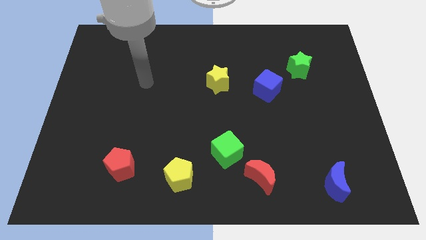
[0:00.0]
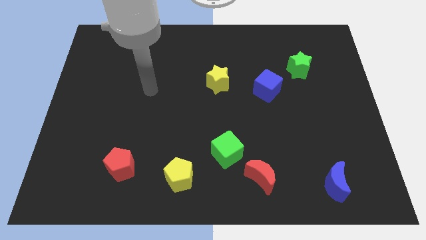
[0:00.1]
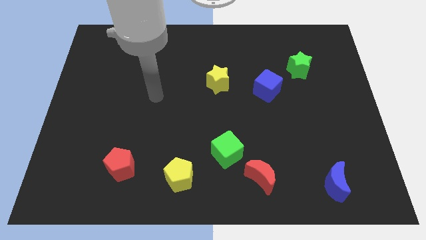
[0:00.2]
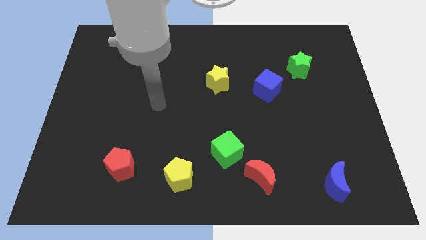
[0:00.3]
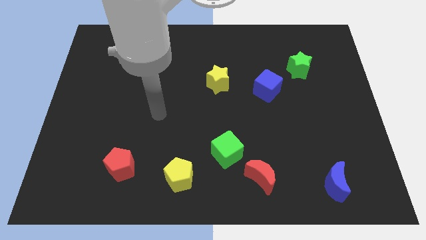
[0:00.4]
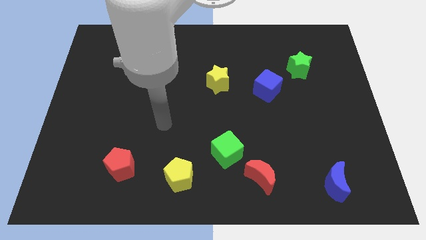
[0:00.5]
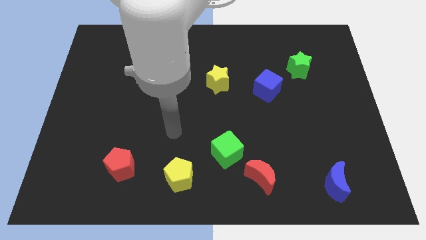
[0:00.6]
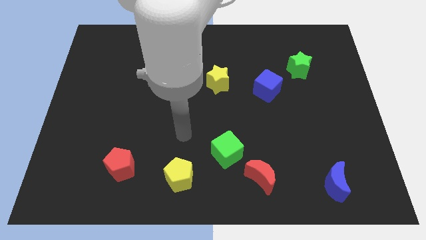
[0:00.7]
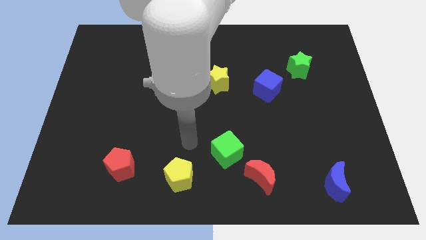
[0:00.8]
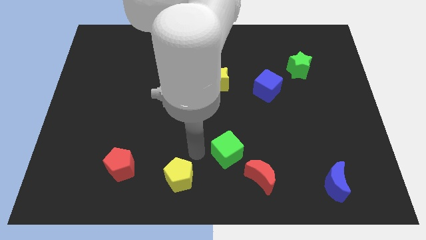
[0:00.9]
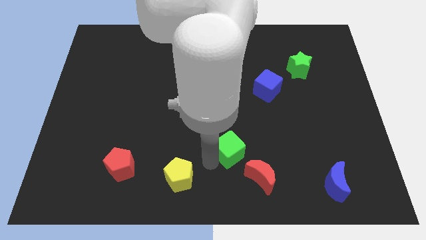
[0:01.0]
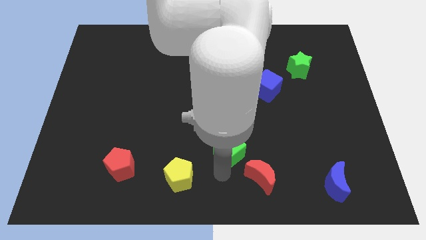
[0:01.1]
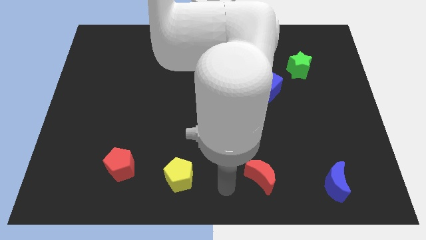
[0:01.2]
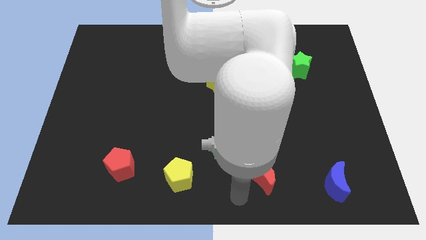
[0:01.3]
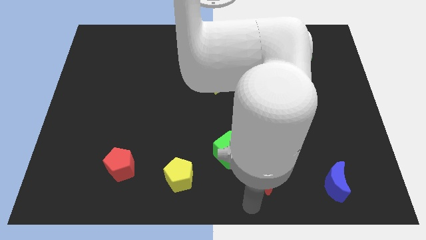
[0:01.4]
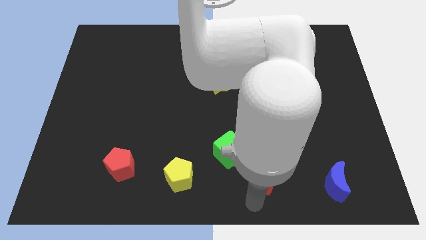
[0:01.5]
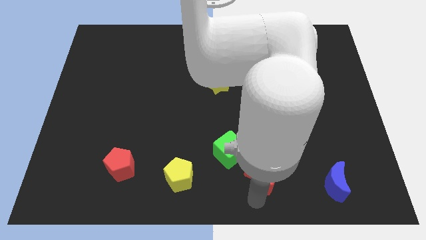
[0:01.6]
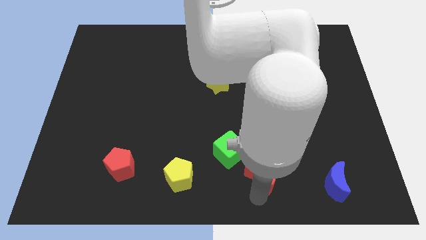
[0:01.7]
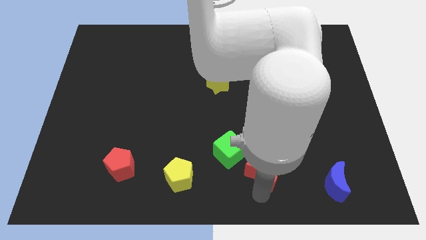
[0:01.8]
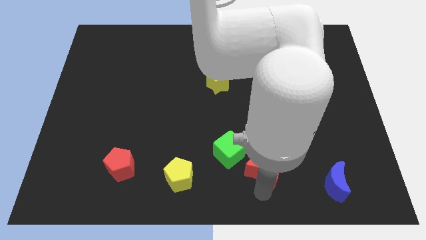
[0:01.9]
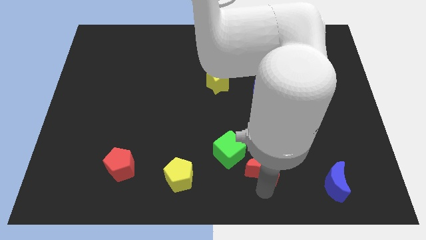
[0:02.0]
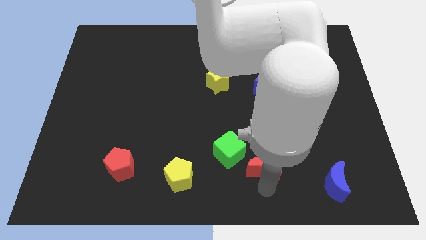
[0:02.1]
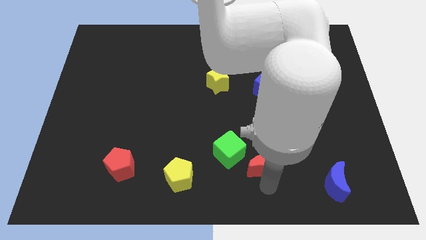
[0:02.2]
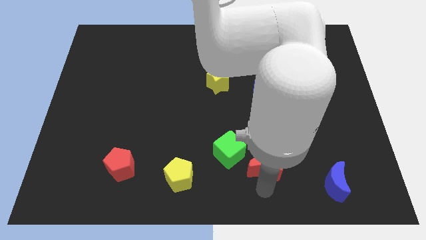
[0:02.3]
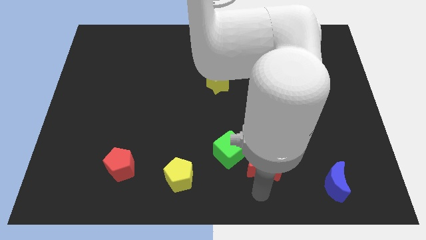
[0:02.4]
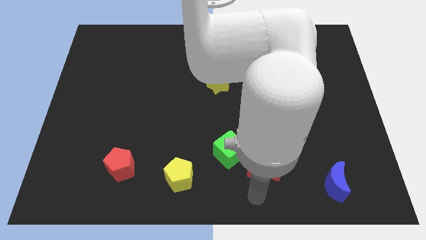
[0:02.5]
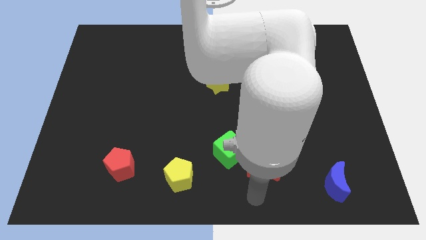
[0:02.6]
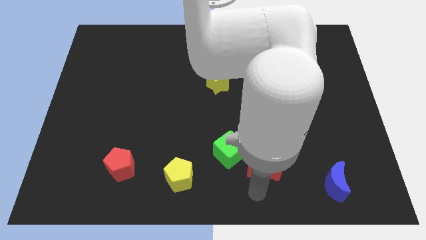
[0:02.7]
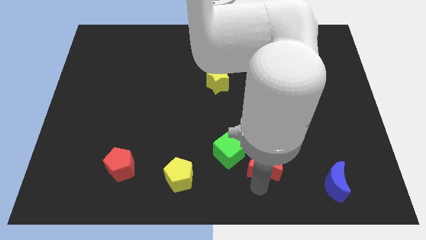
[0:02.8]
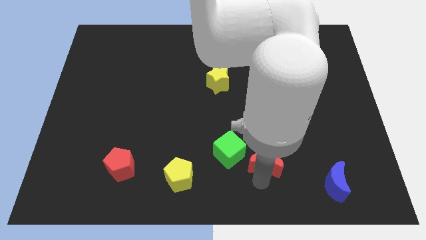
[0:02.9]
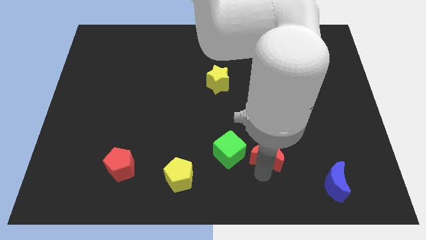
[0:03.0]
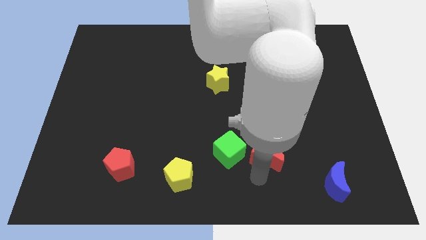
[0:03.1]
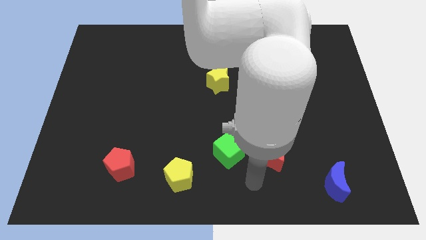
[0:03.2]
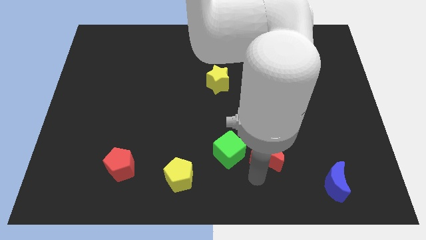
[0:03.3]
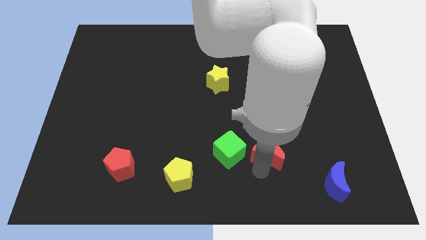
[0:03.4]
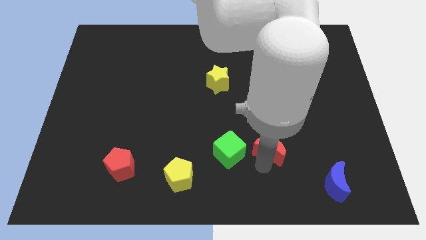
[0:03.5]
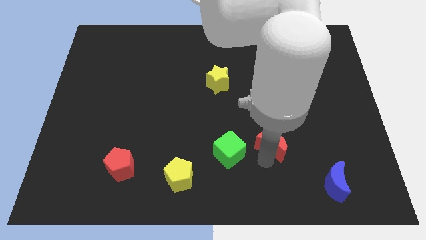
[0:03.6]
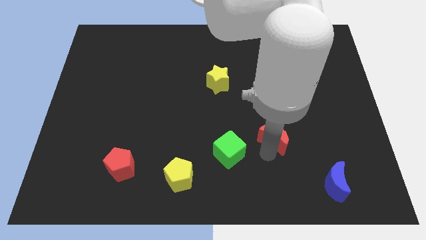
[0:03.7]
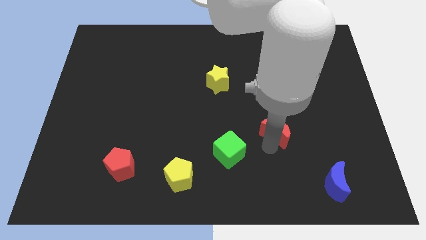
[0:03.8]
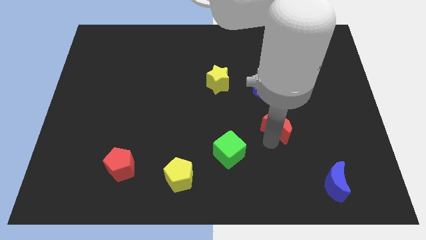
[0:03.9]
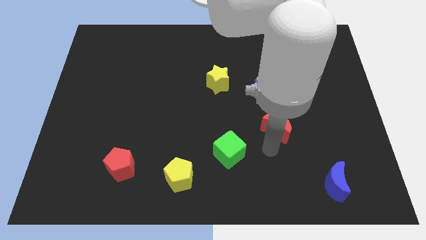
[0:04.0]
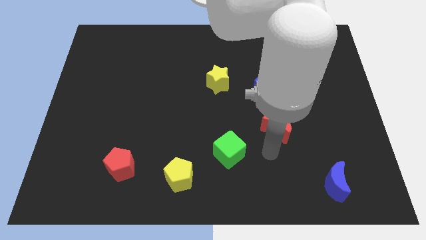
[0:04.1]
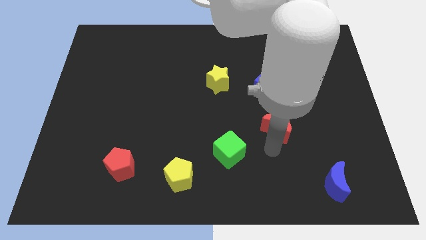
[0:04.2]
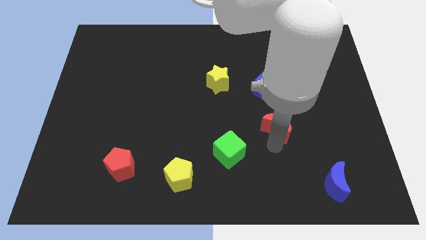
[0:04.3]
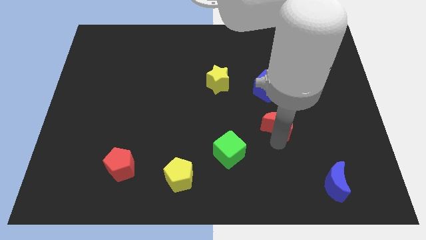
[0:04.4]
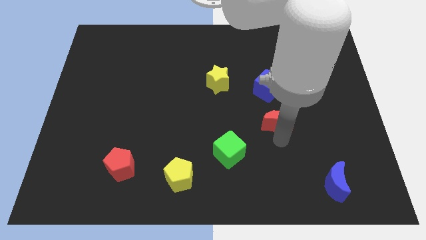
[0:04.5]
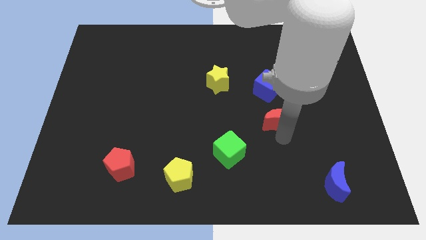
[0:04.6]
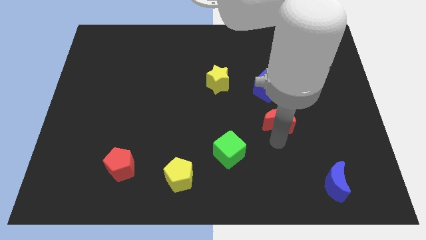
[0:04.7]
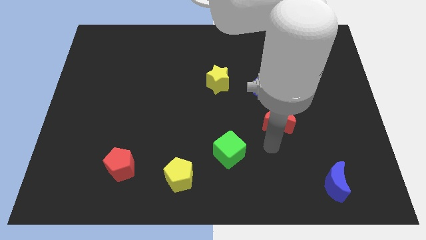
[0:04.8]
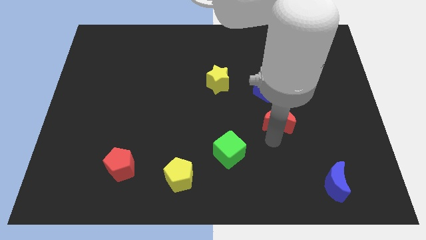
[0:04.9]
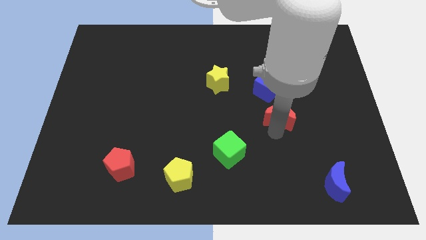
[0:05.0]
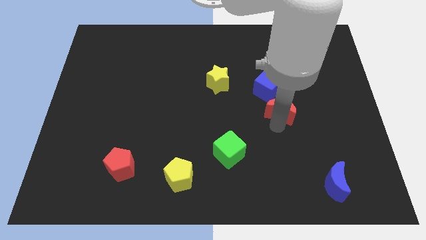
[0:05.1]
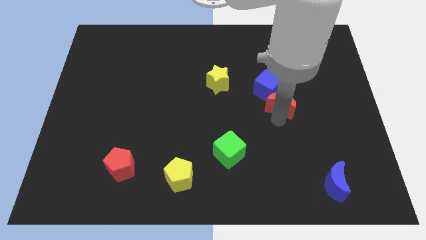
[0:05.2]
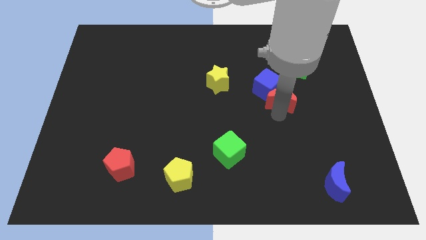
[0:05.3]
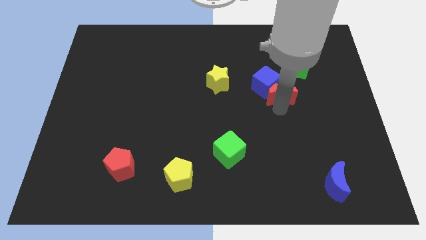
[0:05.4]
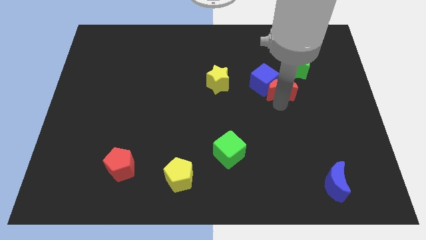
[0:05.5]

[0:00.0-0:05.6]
move the red moon to the right of the yellow star

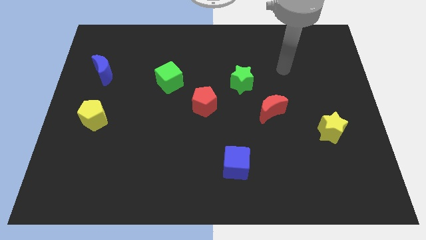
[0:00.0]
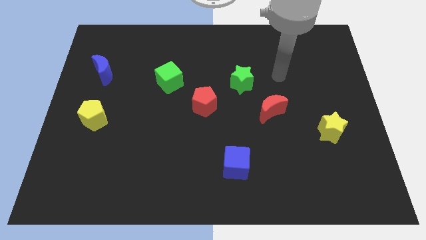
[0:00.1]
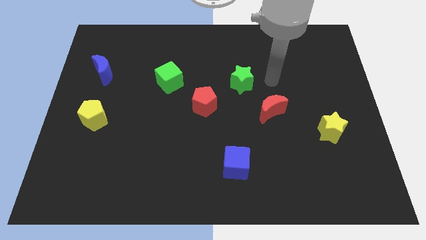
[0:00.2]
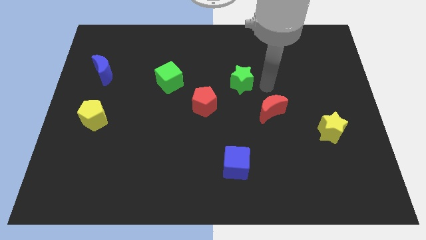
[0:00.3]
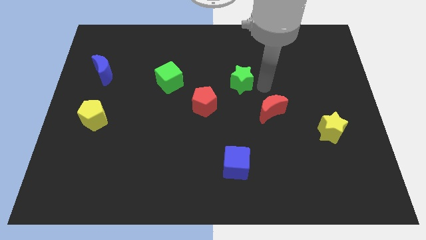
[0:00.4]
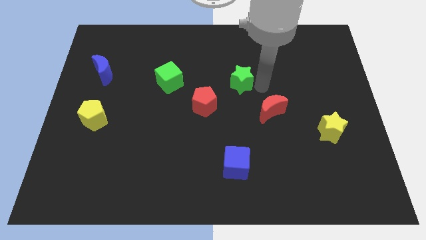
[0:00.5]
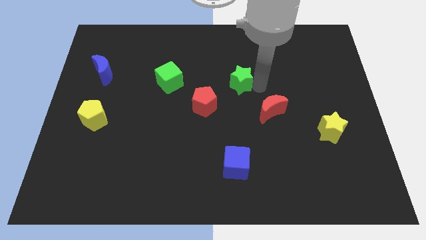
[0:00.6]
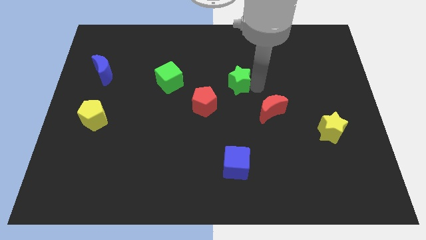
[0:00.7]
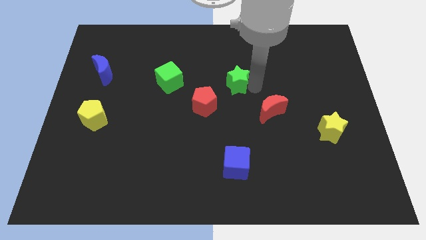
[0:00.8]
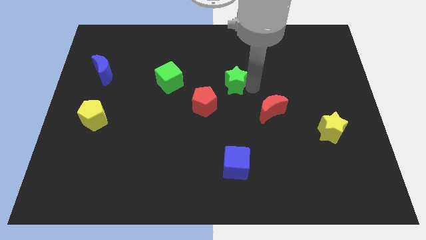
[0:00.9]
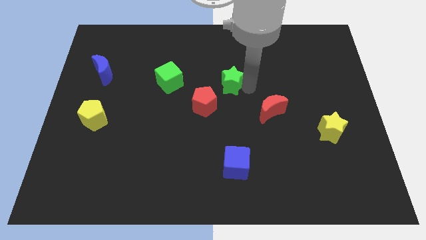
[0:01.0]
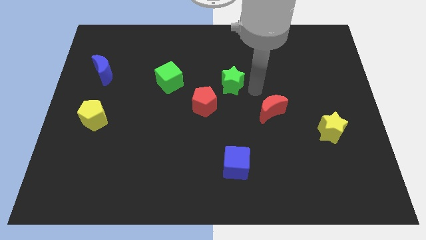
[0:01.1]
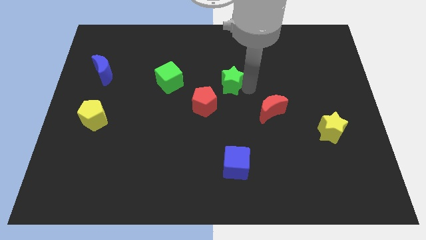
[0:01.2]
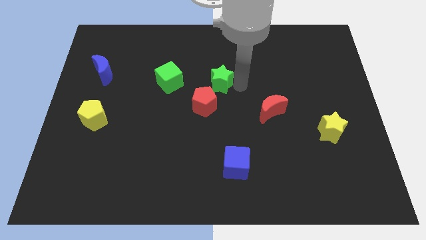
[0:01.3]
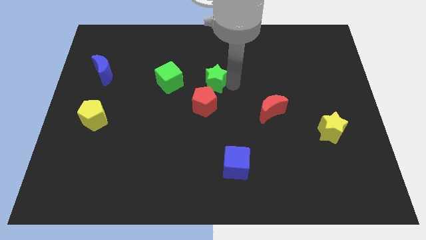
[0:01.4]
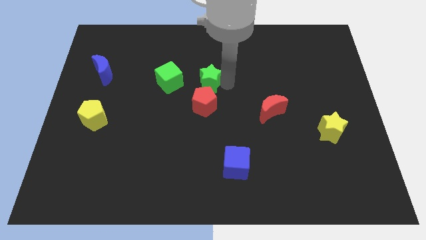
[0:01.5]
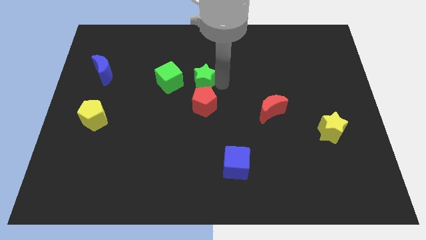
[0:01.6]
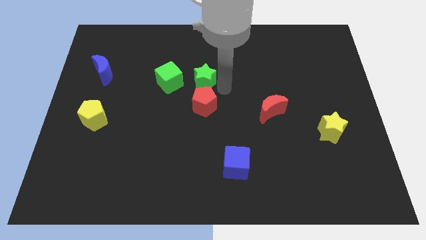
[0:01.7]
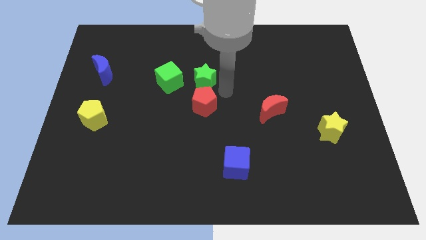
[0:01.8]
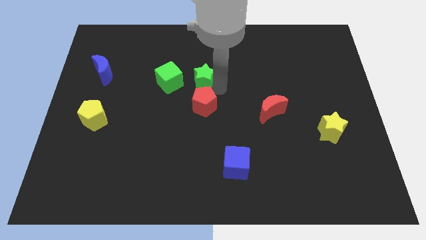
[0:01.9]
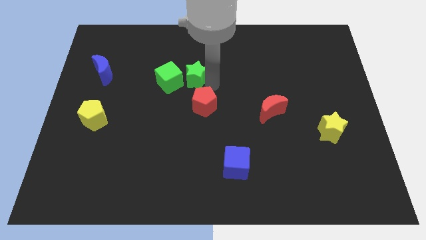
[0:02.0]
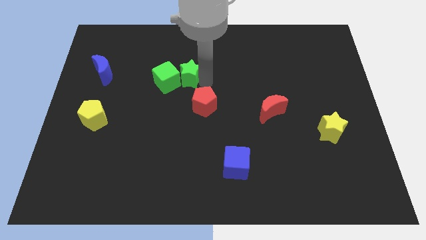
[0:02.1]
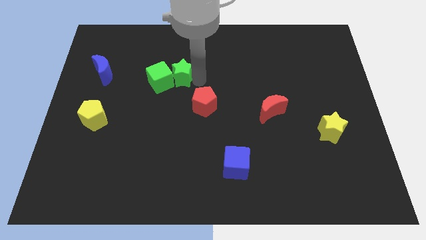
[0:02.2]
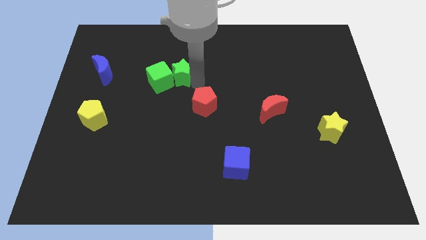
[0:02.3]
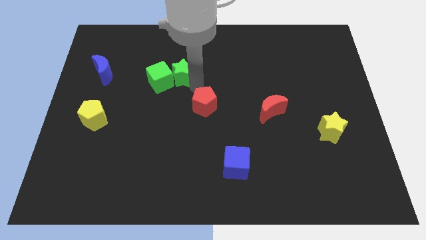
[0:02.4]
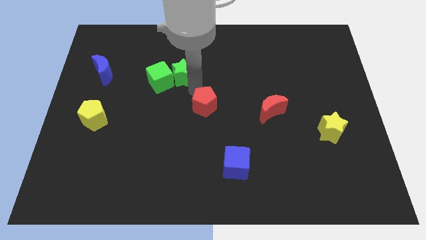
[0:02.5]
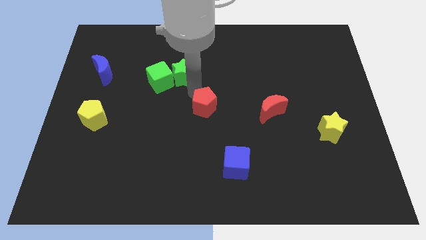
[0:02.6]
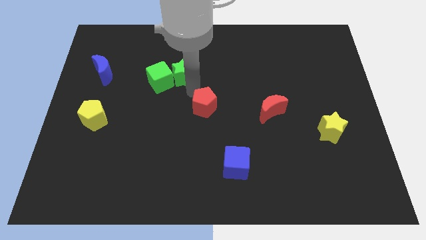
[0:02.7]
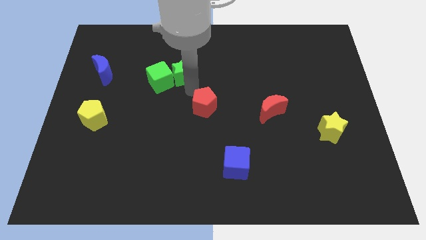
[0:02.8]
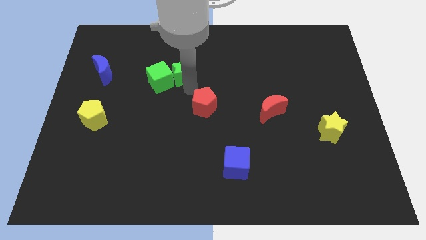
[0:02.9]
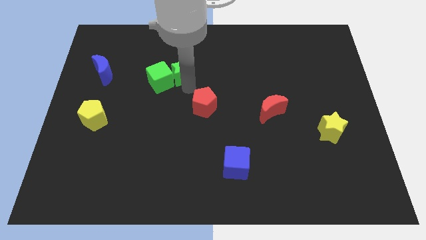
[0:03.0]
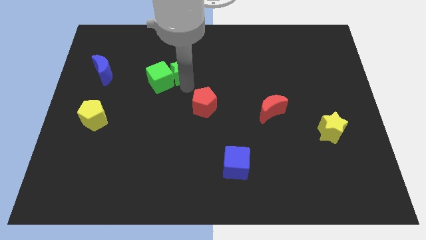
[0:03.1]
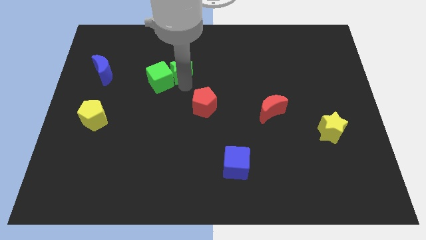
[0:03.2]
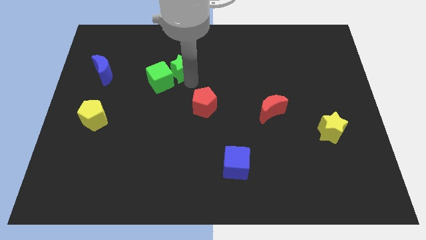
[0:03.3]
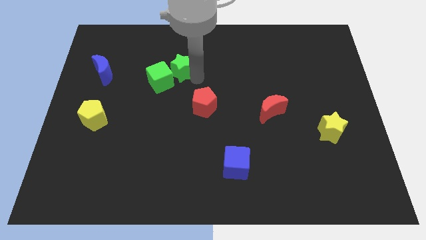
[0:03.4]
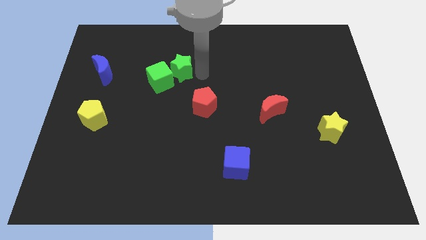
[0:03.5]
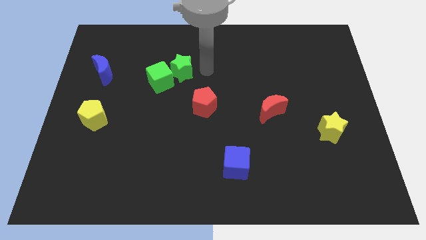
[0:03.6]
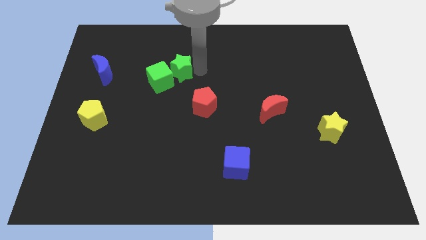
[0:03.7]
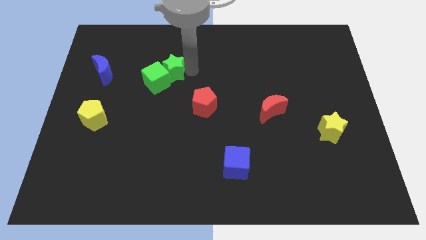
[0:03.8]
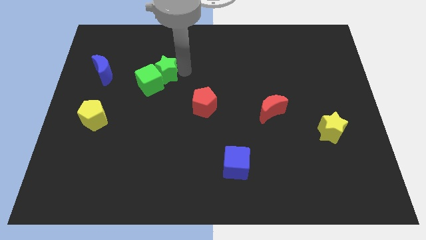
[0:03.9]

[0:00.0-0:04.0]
push the green star to the right side of the blue moon
